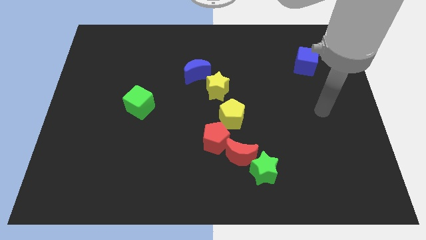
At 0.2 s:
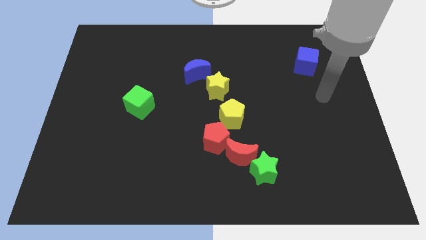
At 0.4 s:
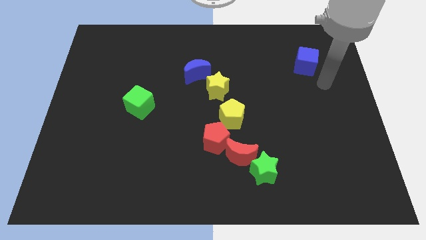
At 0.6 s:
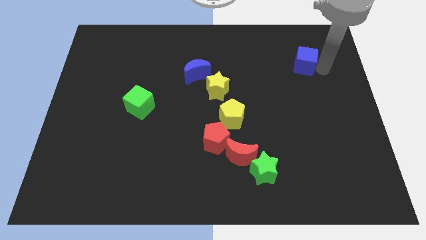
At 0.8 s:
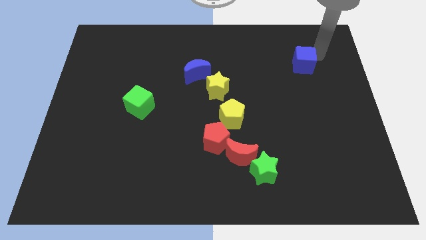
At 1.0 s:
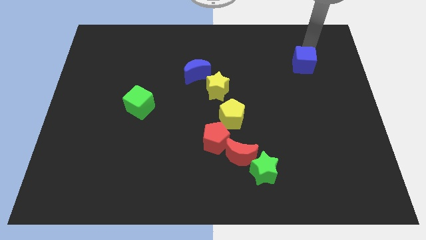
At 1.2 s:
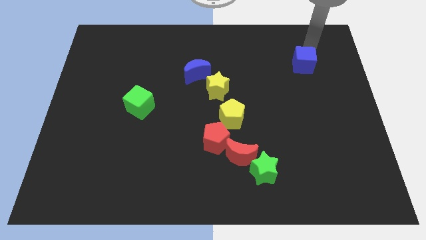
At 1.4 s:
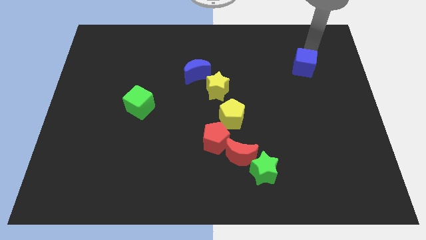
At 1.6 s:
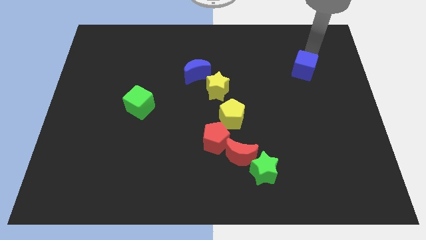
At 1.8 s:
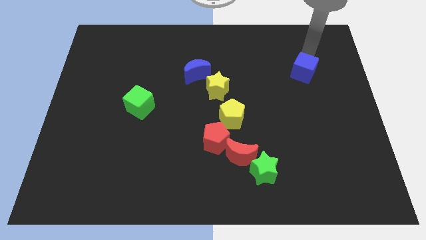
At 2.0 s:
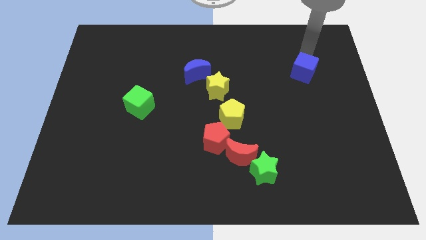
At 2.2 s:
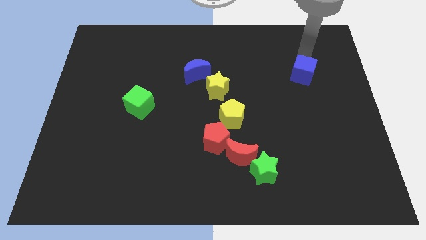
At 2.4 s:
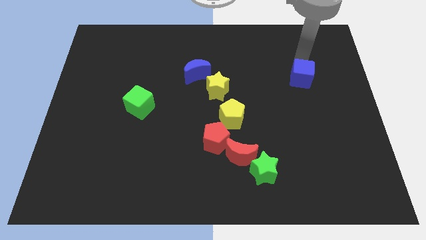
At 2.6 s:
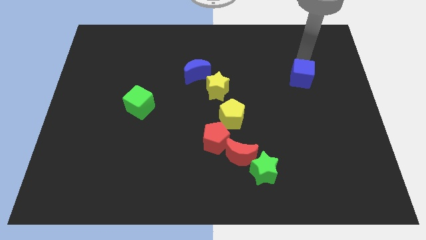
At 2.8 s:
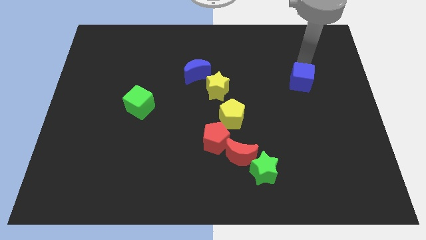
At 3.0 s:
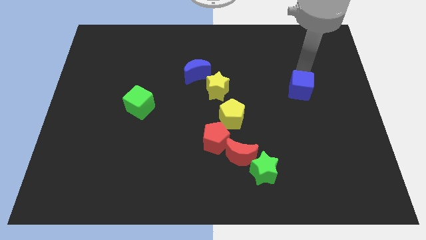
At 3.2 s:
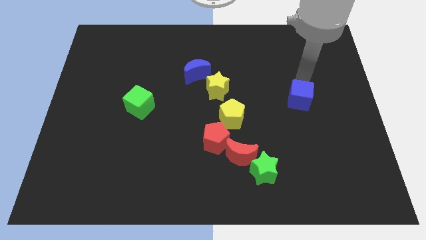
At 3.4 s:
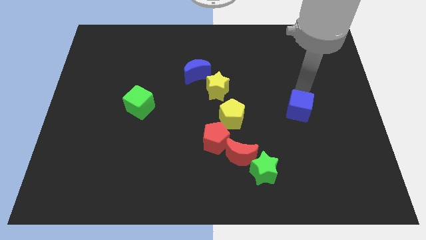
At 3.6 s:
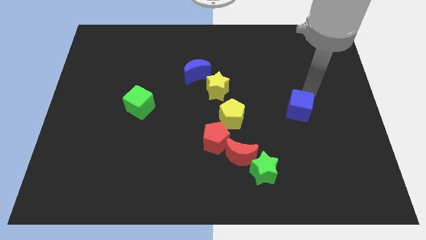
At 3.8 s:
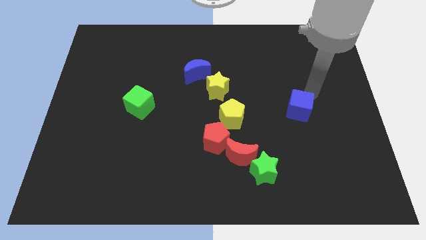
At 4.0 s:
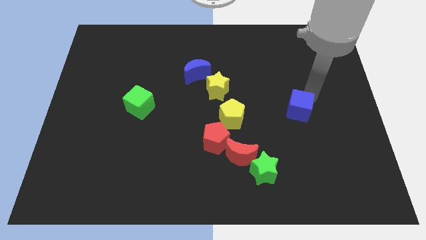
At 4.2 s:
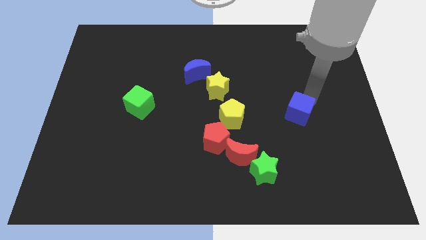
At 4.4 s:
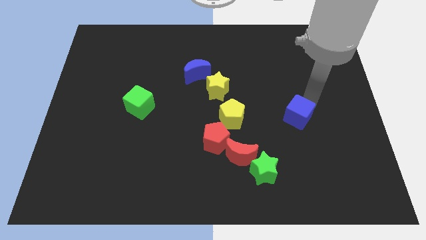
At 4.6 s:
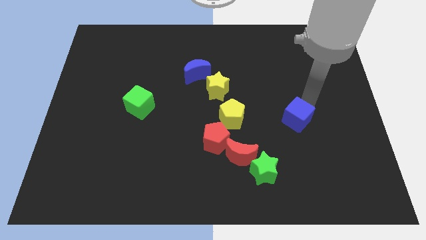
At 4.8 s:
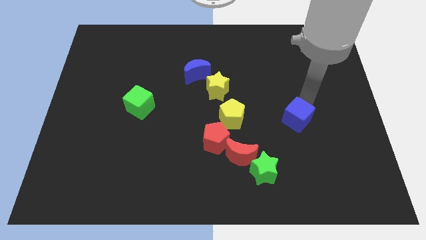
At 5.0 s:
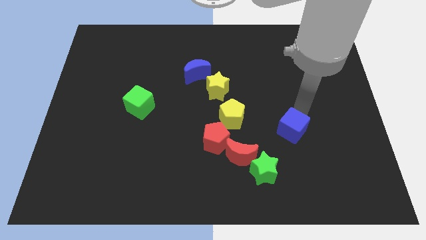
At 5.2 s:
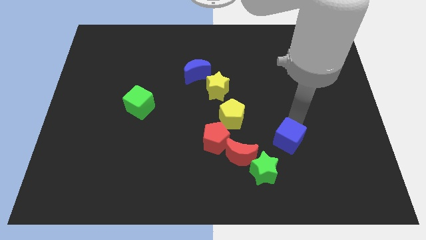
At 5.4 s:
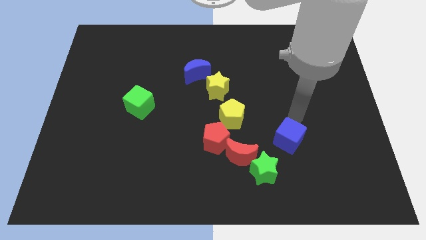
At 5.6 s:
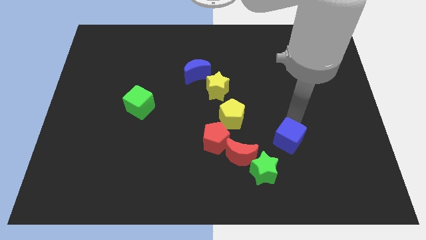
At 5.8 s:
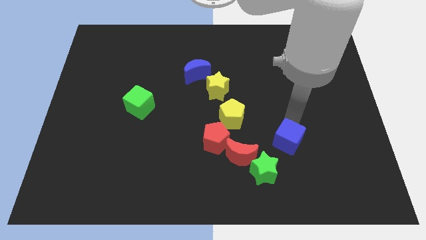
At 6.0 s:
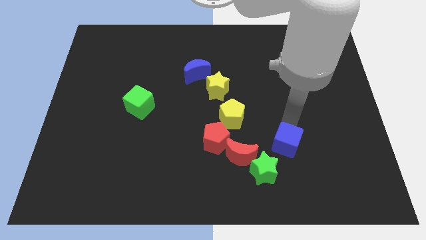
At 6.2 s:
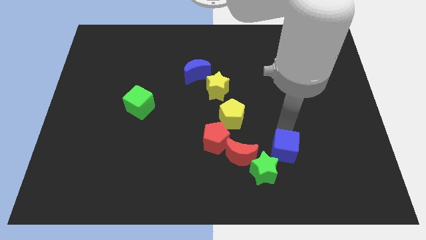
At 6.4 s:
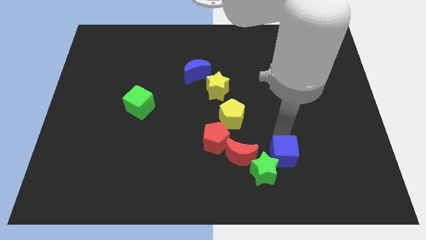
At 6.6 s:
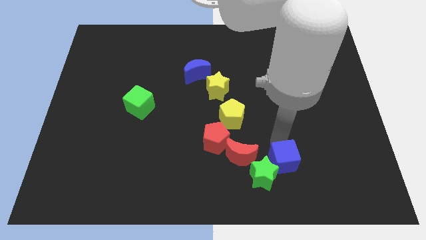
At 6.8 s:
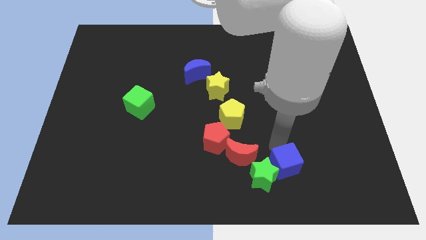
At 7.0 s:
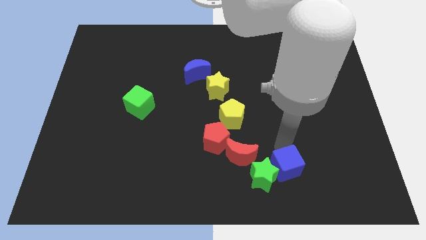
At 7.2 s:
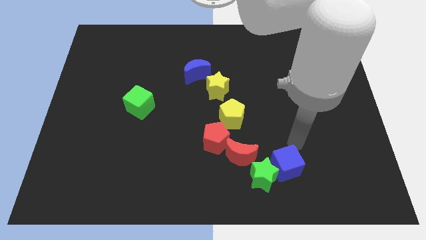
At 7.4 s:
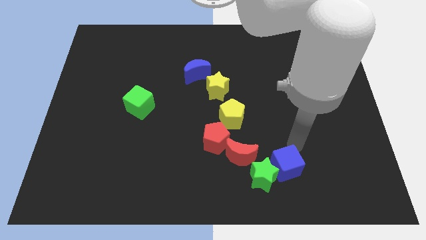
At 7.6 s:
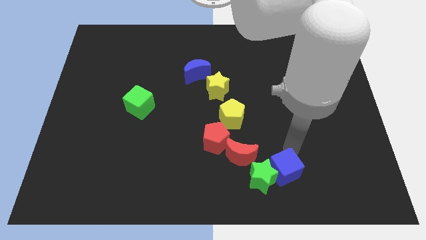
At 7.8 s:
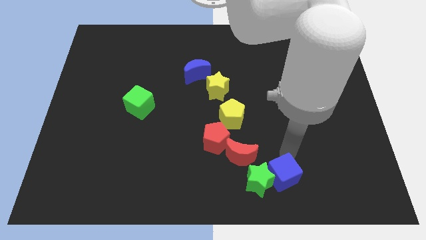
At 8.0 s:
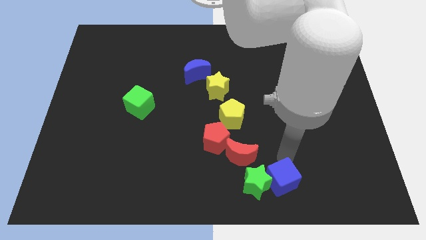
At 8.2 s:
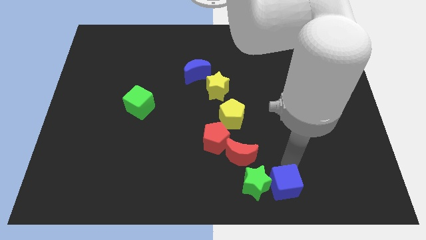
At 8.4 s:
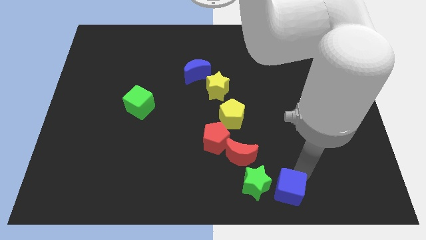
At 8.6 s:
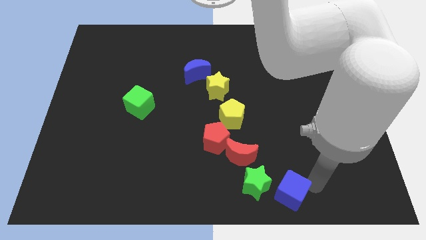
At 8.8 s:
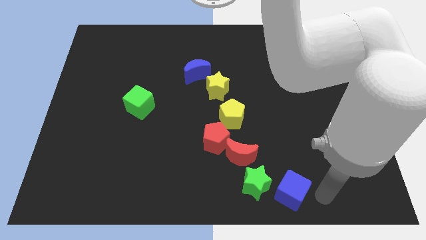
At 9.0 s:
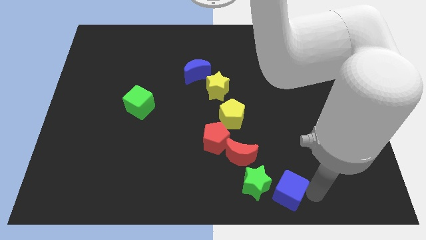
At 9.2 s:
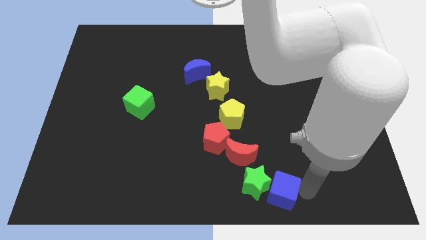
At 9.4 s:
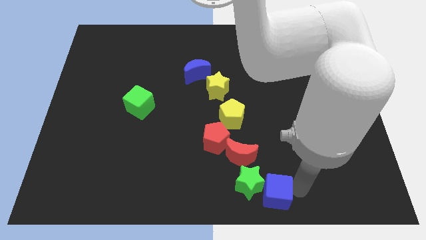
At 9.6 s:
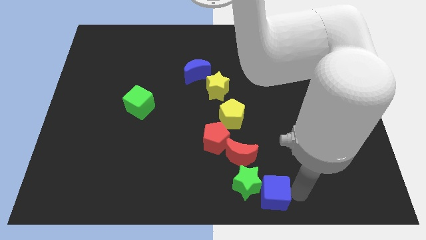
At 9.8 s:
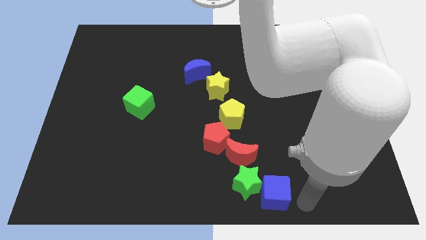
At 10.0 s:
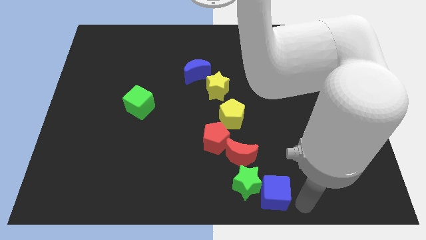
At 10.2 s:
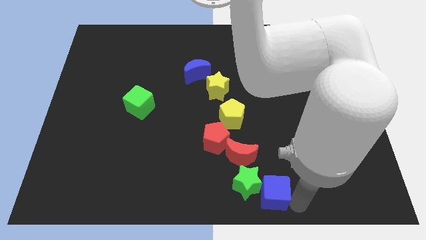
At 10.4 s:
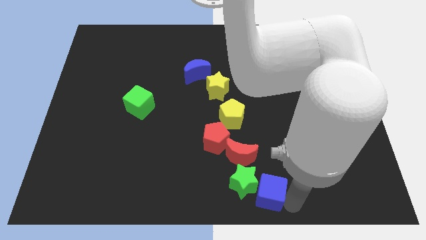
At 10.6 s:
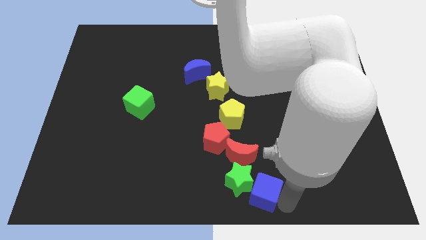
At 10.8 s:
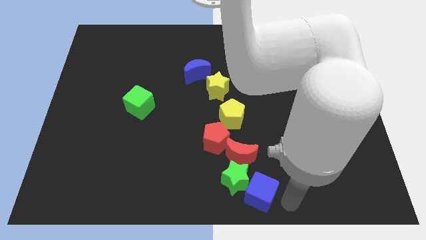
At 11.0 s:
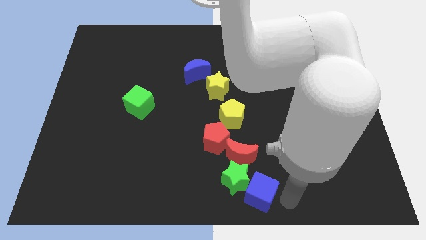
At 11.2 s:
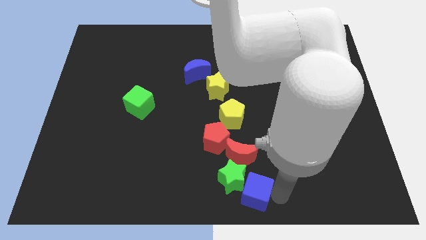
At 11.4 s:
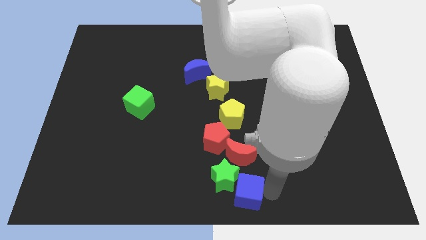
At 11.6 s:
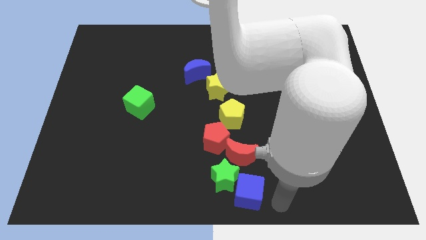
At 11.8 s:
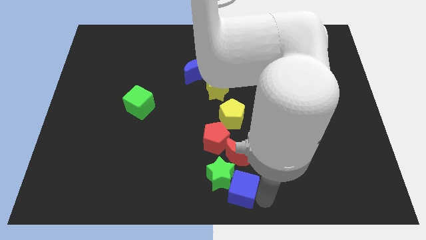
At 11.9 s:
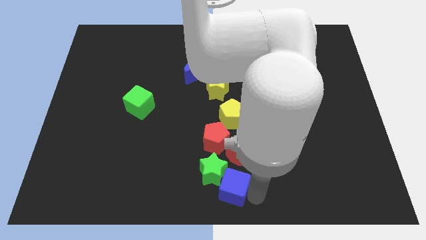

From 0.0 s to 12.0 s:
move the blue cube to the bottom of the red pentagon

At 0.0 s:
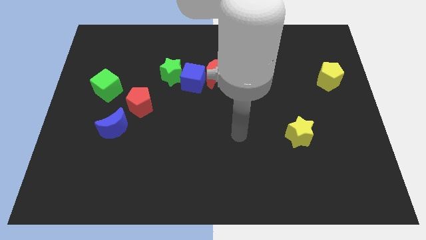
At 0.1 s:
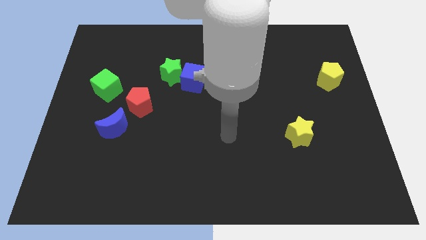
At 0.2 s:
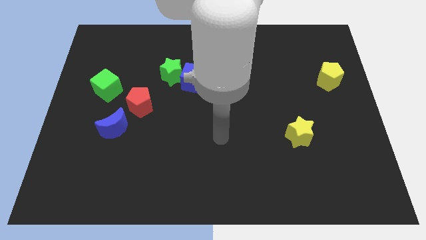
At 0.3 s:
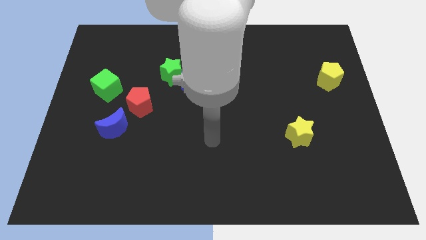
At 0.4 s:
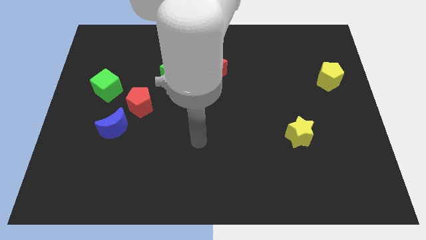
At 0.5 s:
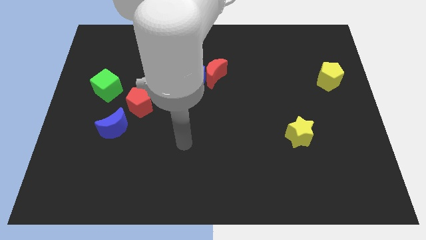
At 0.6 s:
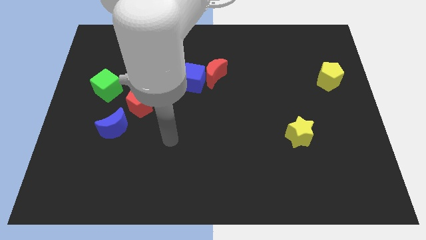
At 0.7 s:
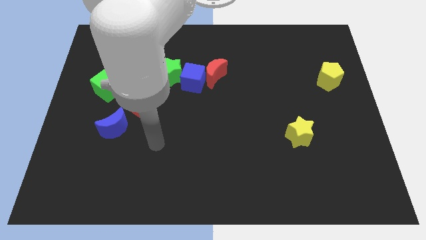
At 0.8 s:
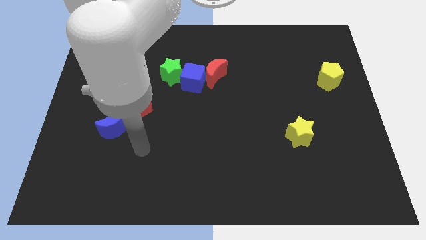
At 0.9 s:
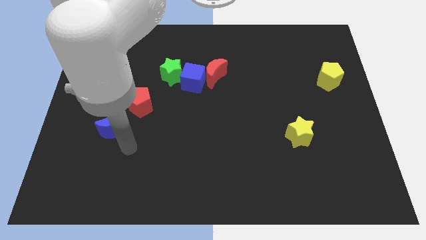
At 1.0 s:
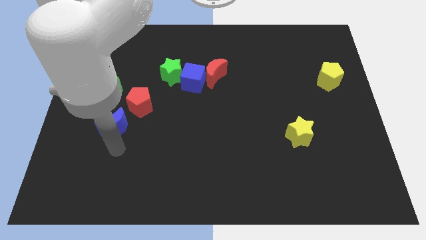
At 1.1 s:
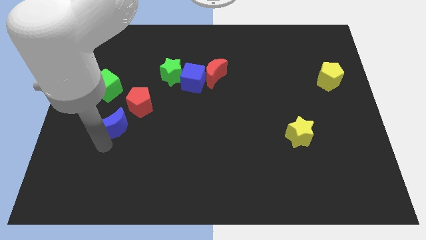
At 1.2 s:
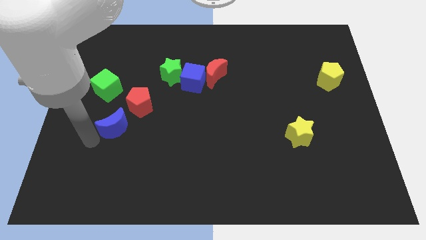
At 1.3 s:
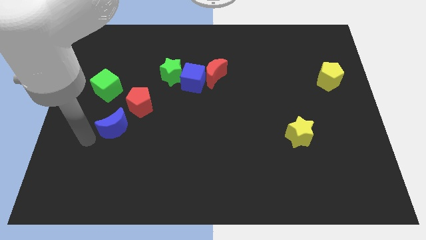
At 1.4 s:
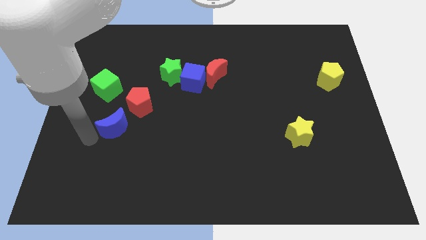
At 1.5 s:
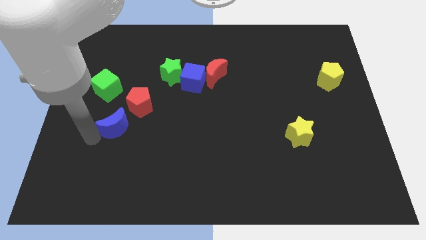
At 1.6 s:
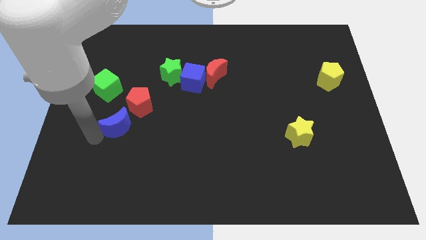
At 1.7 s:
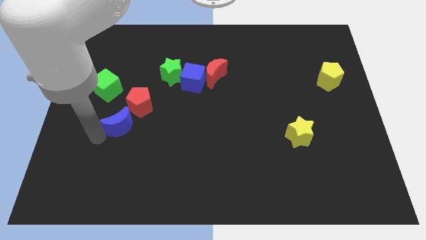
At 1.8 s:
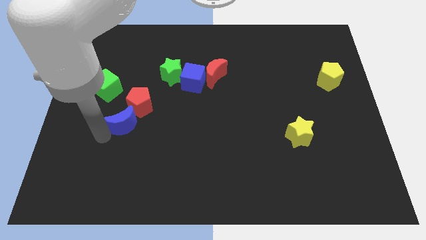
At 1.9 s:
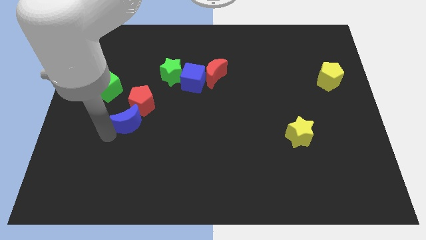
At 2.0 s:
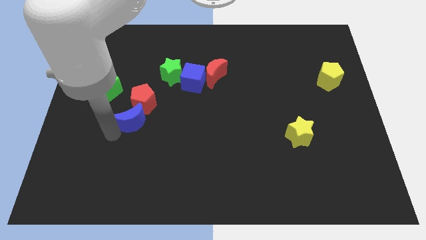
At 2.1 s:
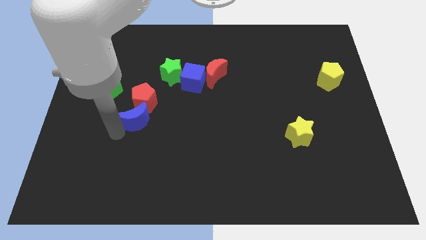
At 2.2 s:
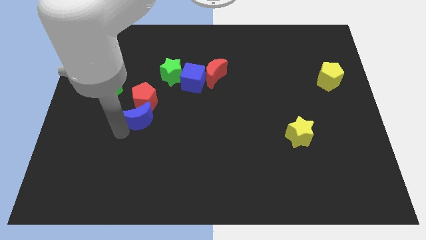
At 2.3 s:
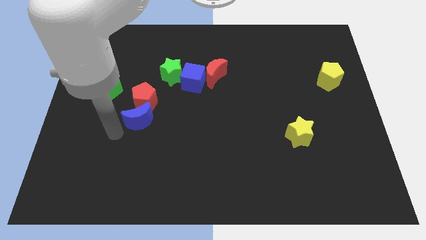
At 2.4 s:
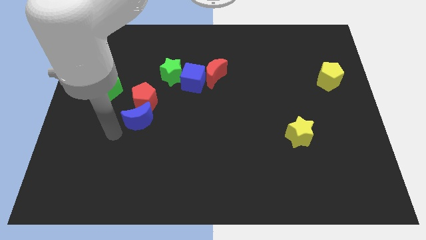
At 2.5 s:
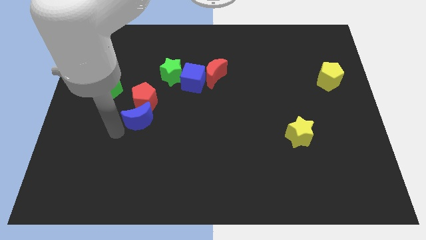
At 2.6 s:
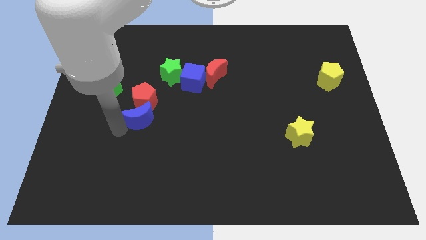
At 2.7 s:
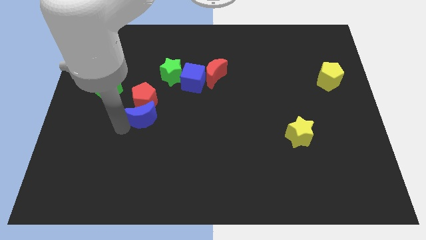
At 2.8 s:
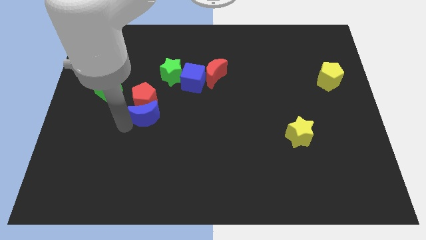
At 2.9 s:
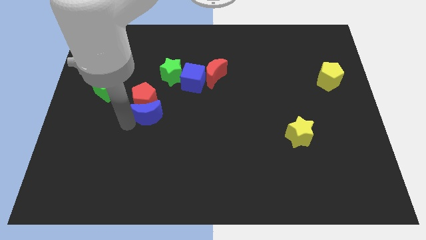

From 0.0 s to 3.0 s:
put the blue moon to the bottom of the green star
